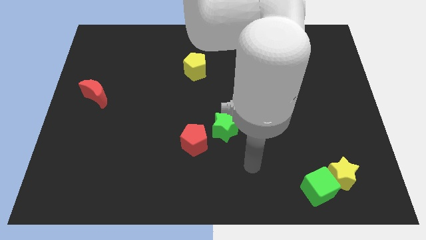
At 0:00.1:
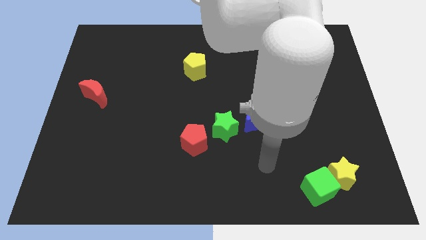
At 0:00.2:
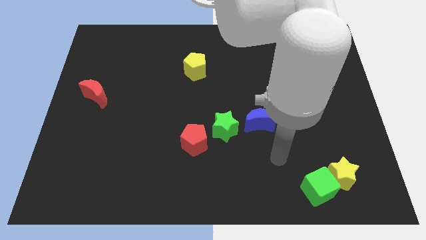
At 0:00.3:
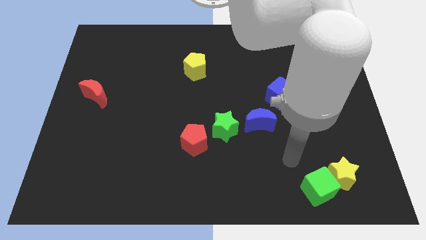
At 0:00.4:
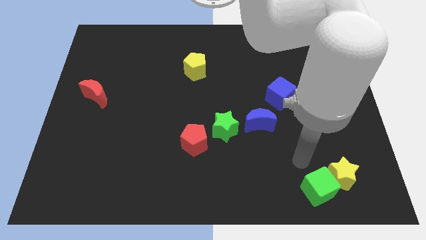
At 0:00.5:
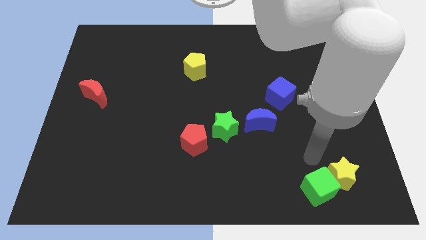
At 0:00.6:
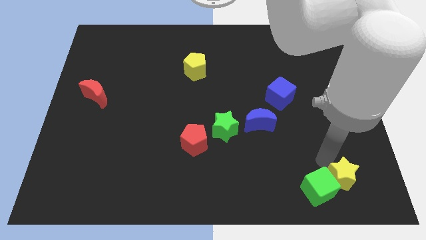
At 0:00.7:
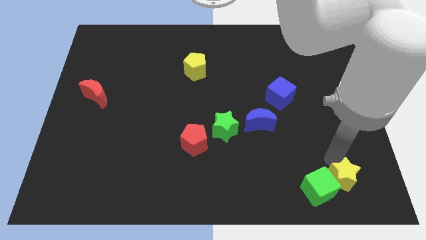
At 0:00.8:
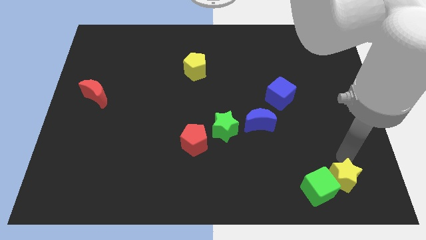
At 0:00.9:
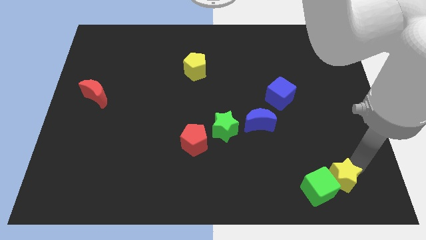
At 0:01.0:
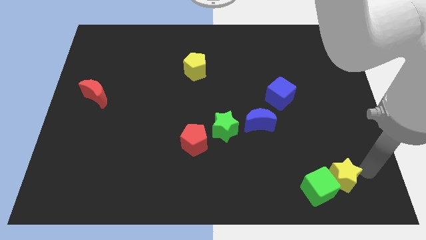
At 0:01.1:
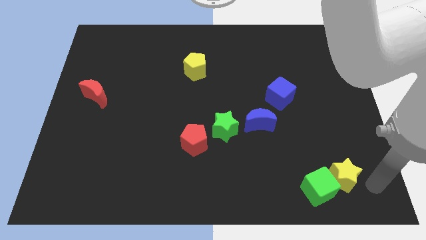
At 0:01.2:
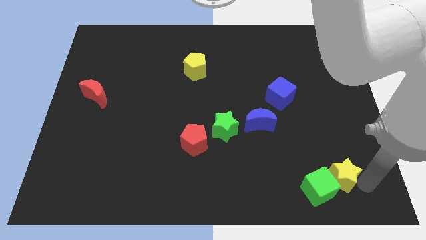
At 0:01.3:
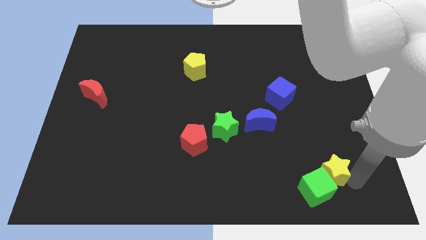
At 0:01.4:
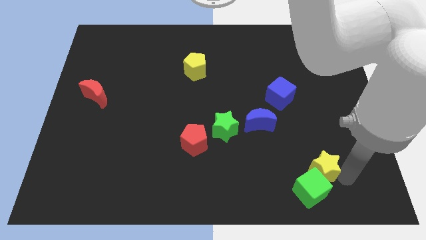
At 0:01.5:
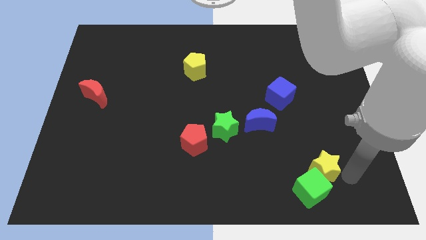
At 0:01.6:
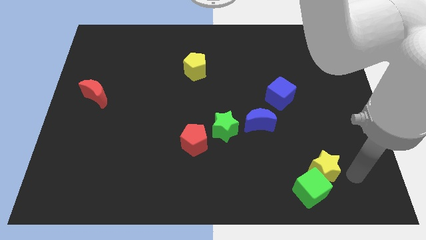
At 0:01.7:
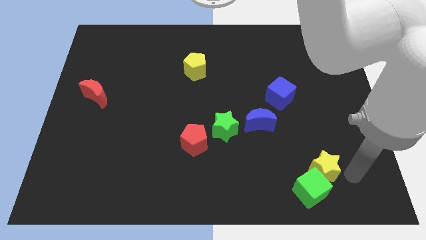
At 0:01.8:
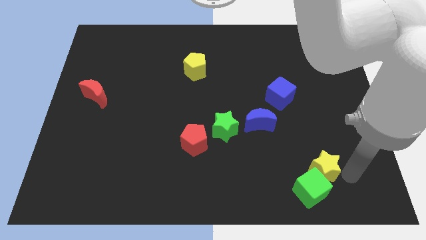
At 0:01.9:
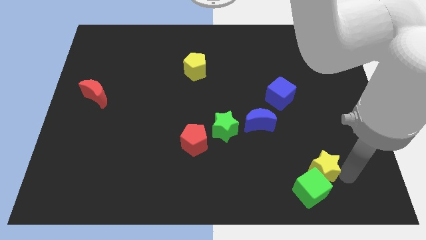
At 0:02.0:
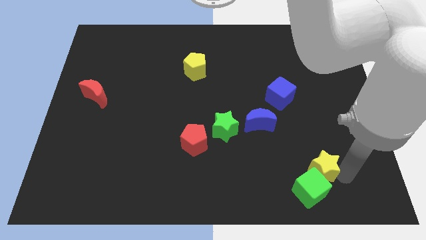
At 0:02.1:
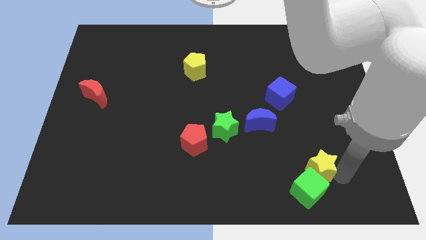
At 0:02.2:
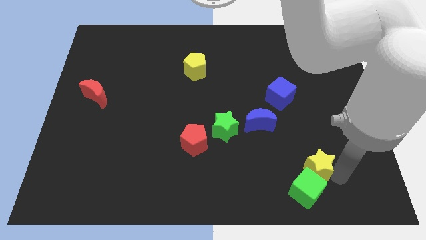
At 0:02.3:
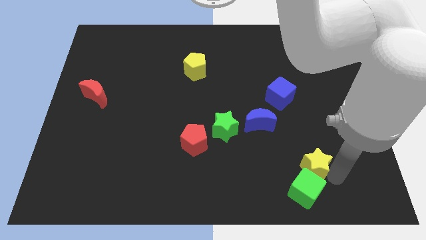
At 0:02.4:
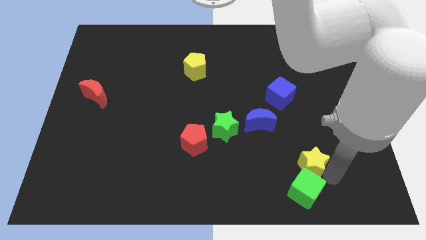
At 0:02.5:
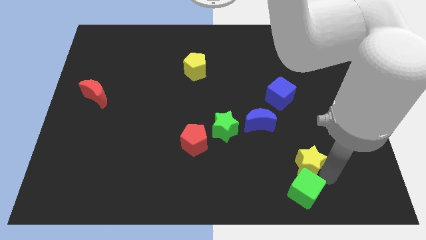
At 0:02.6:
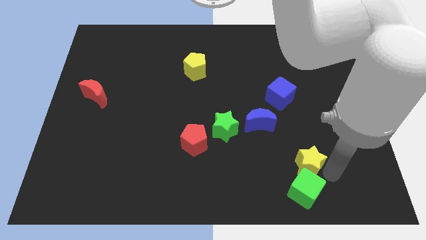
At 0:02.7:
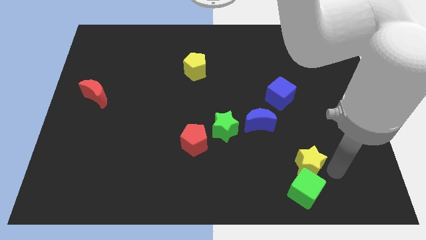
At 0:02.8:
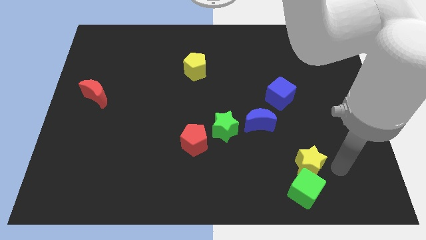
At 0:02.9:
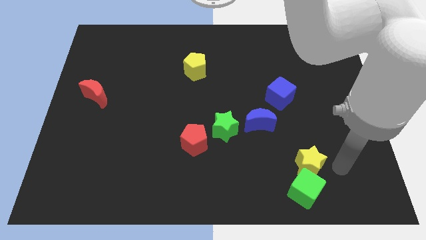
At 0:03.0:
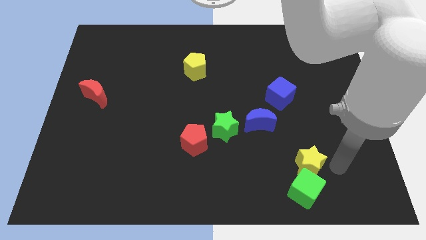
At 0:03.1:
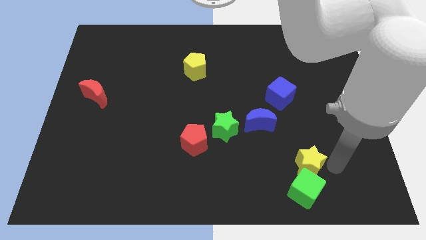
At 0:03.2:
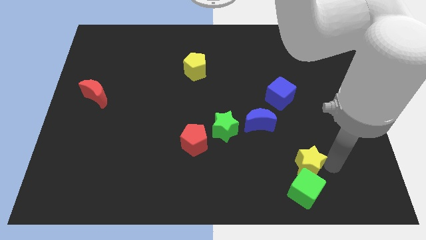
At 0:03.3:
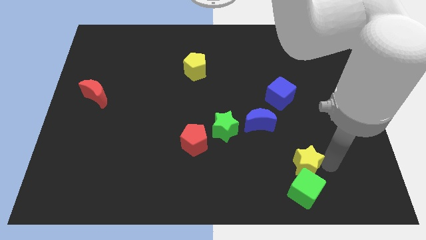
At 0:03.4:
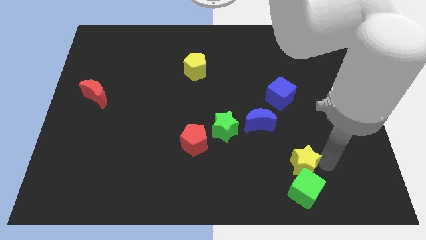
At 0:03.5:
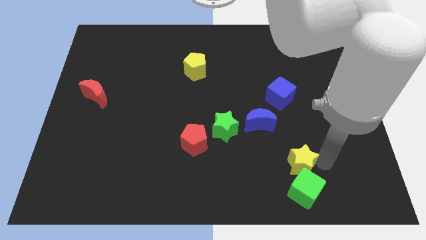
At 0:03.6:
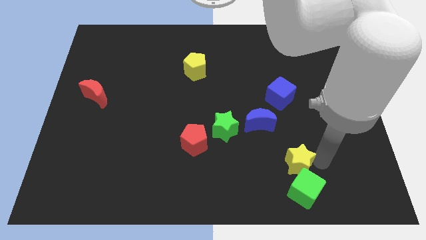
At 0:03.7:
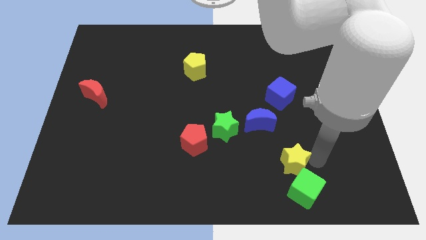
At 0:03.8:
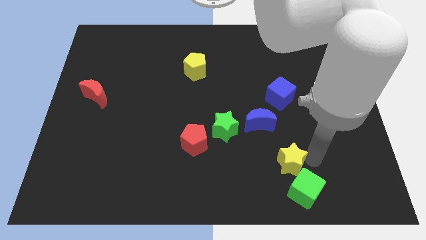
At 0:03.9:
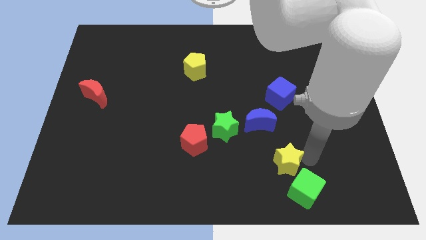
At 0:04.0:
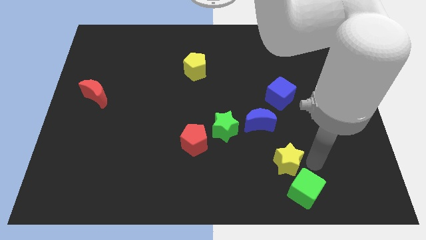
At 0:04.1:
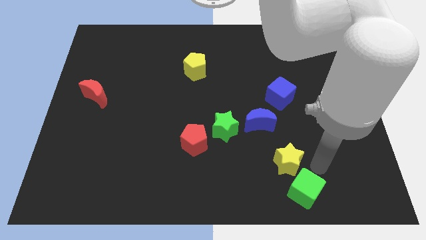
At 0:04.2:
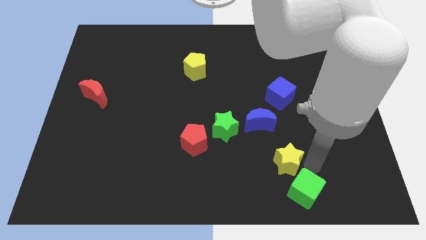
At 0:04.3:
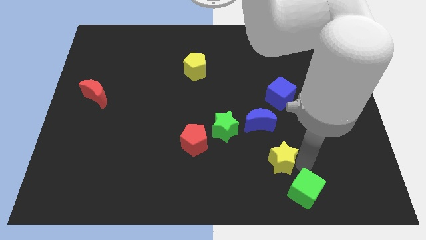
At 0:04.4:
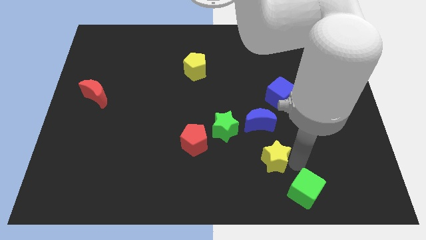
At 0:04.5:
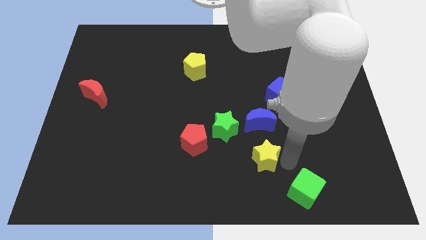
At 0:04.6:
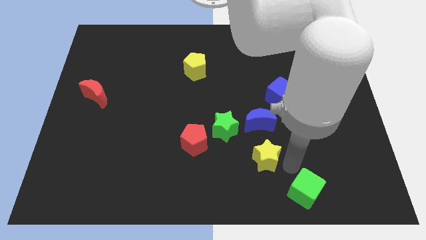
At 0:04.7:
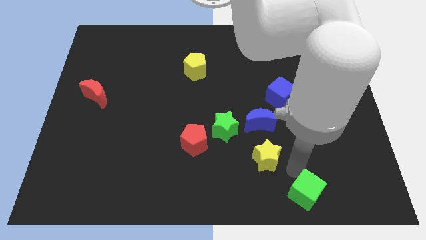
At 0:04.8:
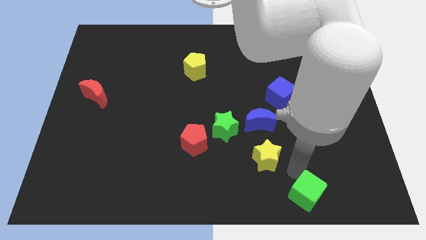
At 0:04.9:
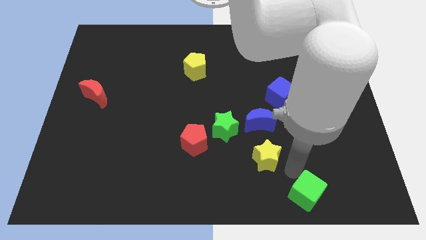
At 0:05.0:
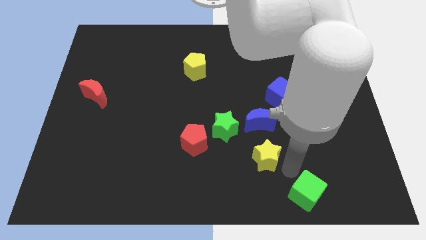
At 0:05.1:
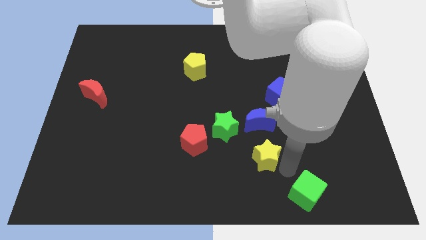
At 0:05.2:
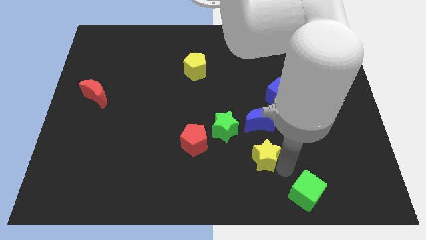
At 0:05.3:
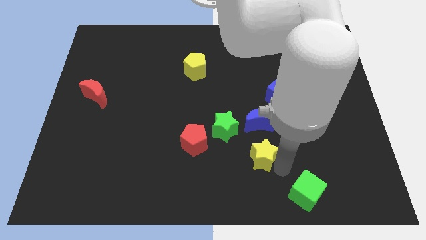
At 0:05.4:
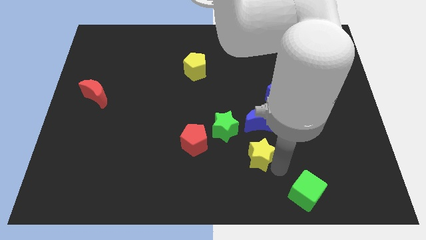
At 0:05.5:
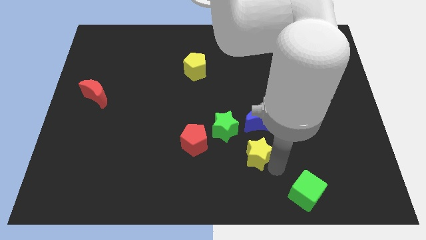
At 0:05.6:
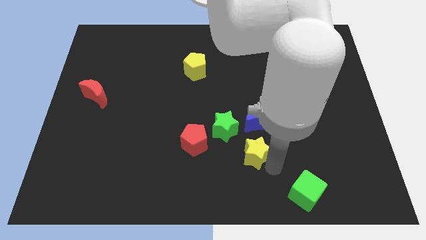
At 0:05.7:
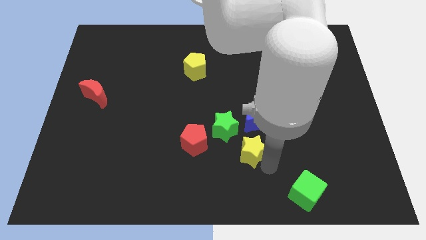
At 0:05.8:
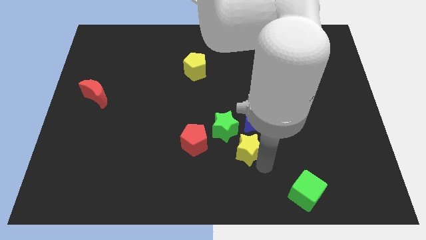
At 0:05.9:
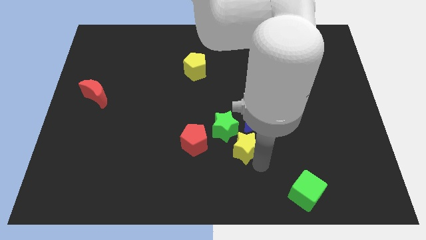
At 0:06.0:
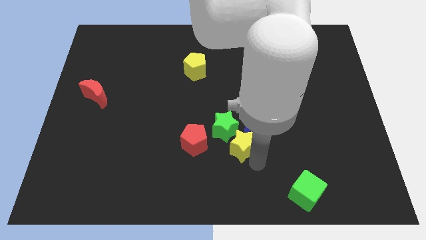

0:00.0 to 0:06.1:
put the yellow star next to the green star

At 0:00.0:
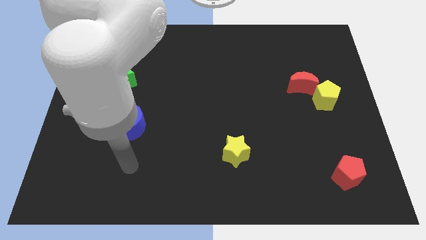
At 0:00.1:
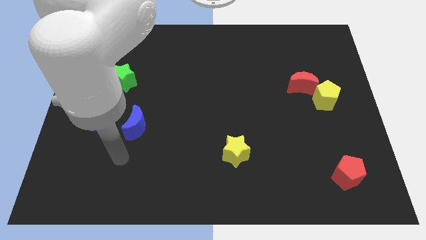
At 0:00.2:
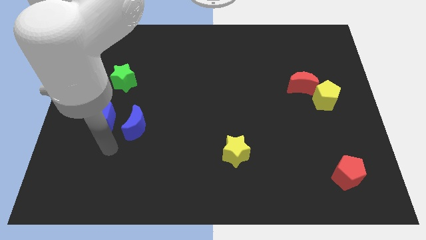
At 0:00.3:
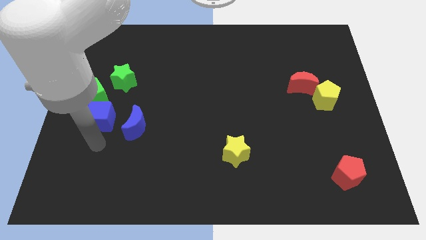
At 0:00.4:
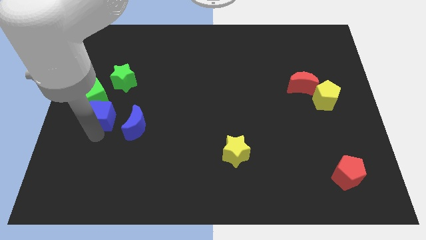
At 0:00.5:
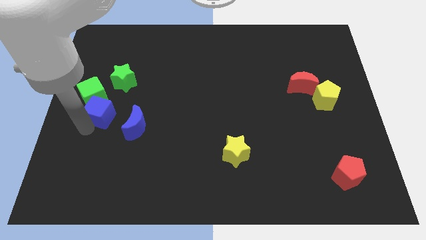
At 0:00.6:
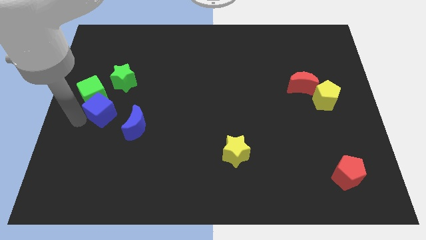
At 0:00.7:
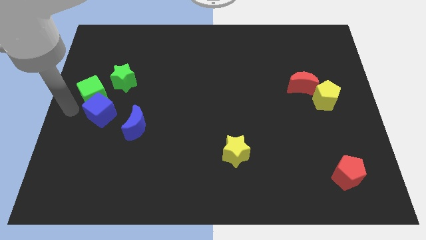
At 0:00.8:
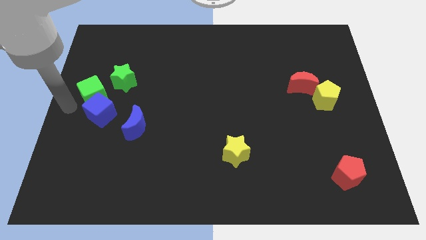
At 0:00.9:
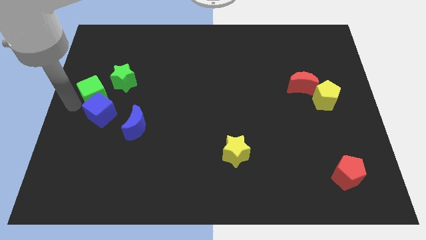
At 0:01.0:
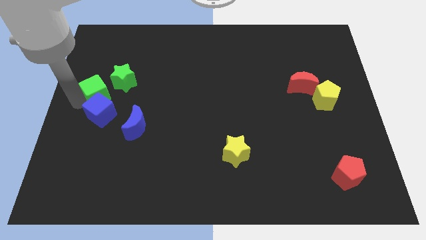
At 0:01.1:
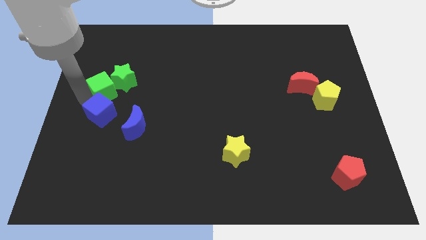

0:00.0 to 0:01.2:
push the green cube to the green star
